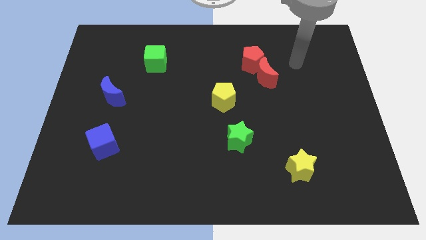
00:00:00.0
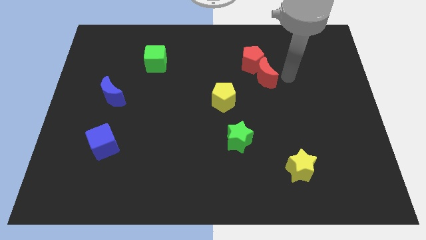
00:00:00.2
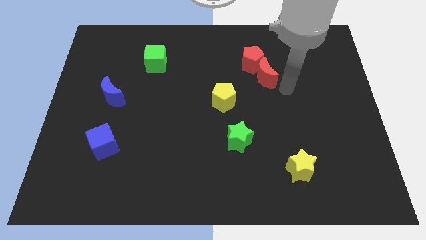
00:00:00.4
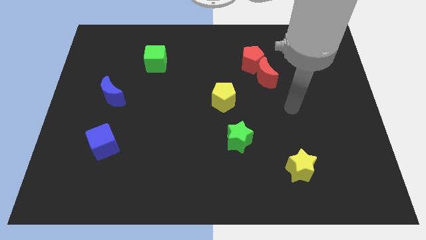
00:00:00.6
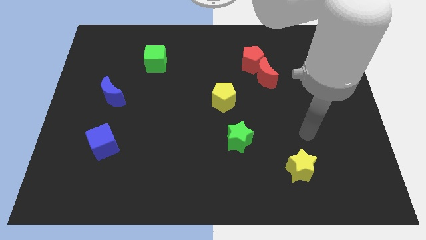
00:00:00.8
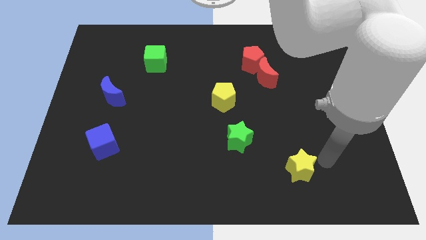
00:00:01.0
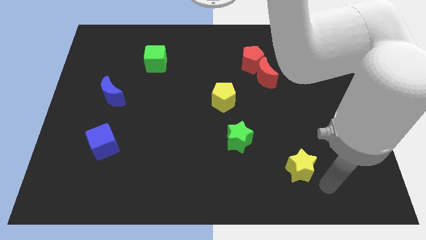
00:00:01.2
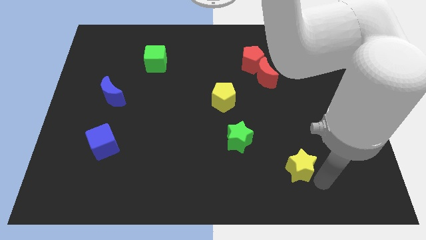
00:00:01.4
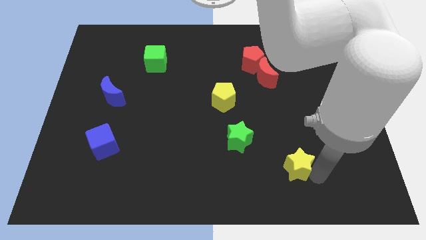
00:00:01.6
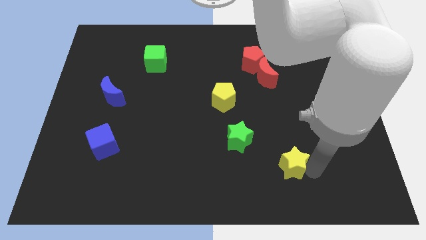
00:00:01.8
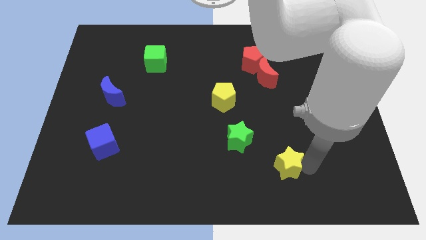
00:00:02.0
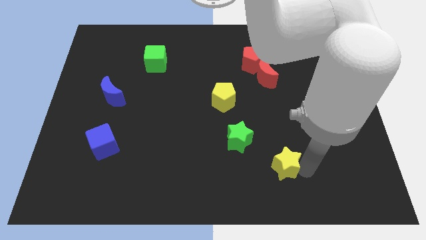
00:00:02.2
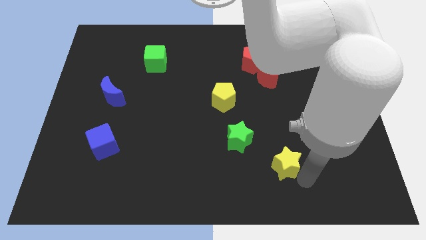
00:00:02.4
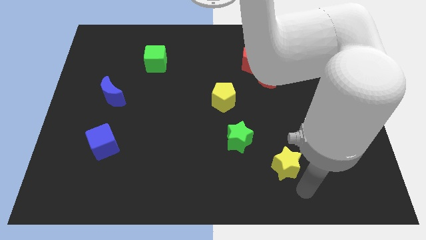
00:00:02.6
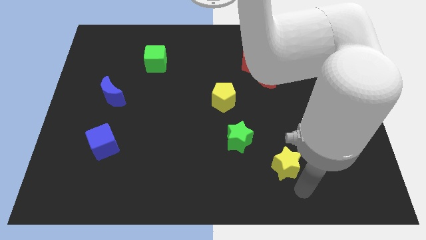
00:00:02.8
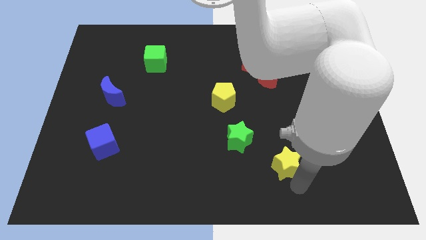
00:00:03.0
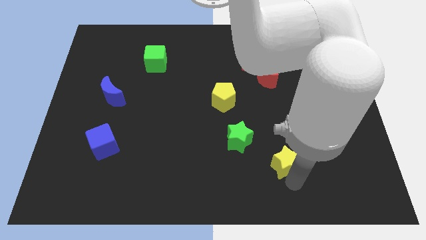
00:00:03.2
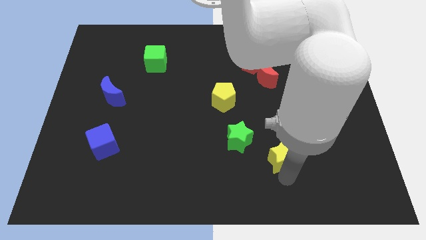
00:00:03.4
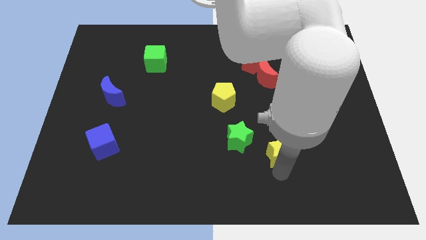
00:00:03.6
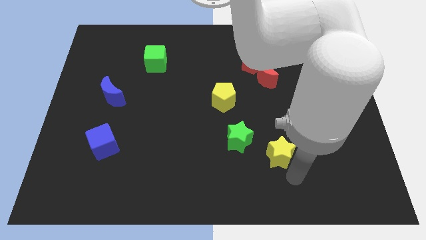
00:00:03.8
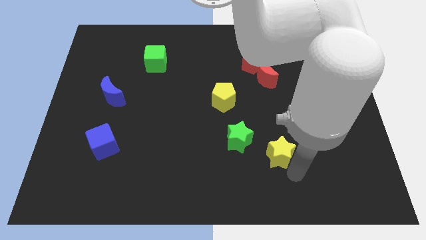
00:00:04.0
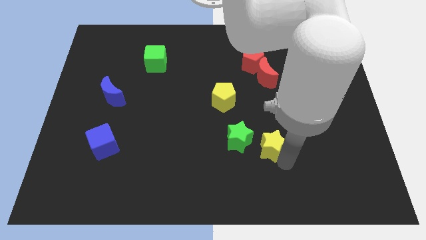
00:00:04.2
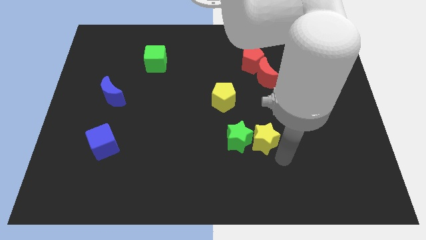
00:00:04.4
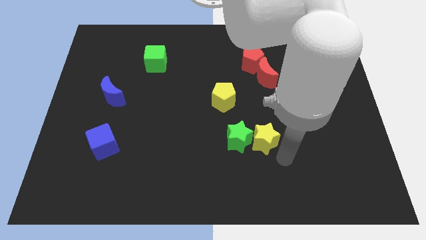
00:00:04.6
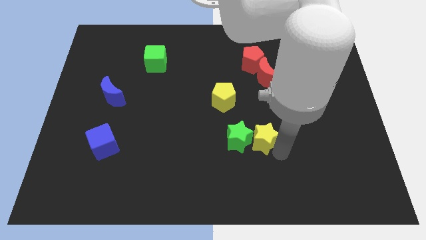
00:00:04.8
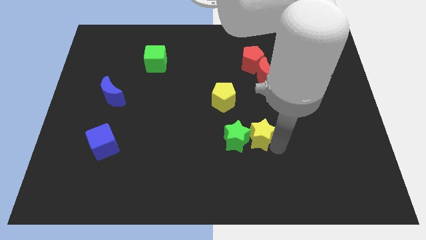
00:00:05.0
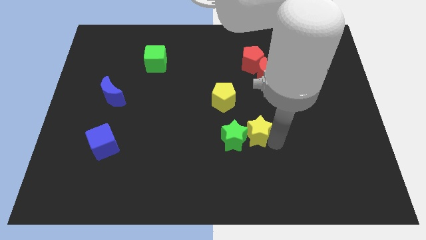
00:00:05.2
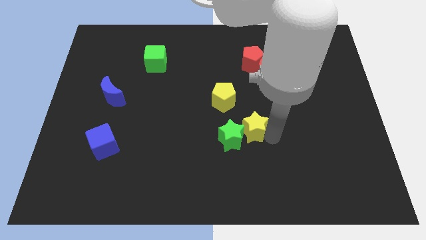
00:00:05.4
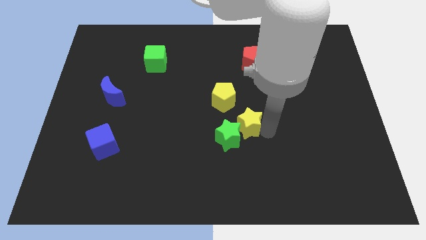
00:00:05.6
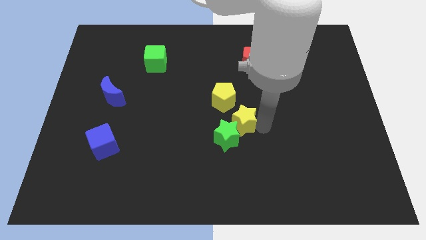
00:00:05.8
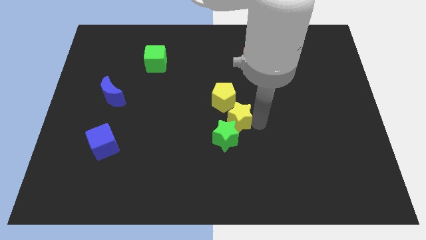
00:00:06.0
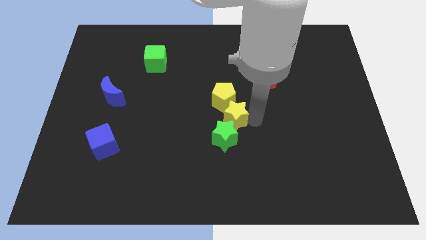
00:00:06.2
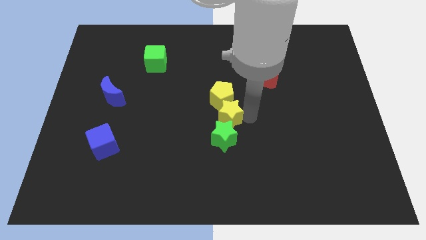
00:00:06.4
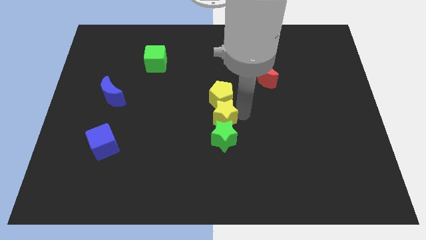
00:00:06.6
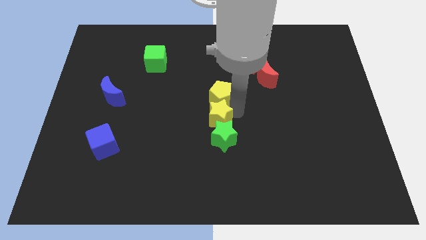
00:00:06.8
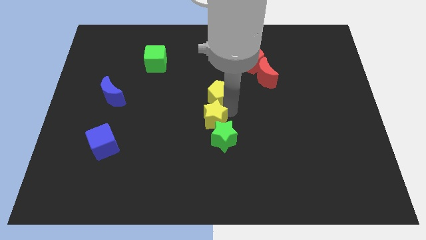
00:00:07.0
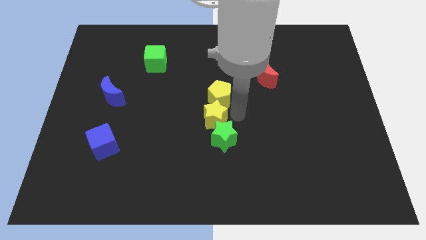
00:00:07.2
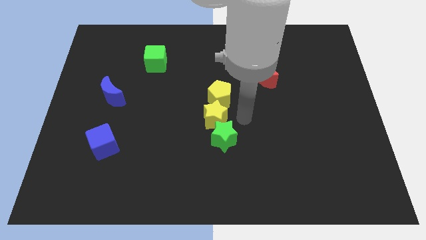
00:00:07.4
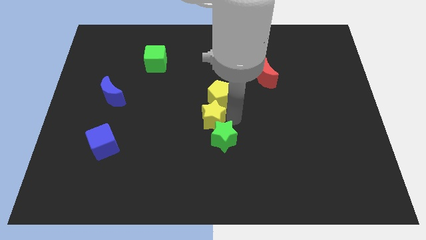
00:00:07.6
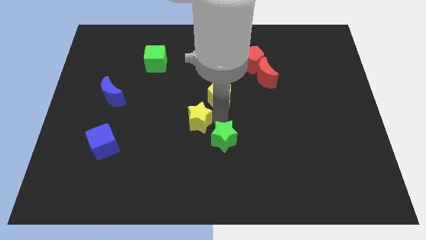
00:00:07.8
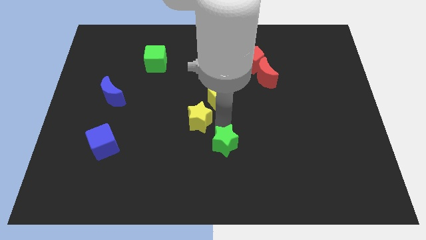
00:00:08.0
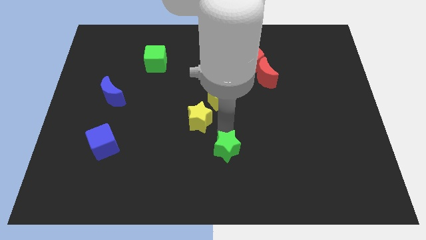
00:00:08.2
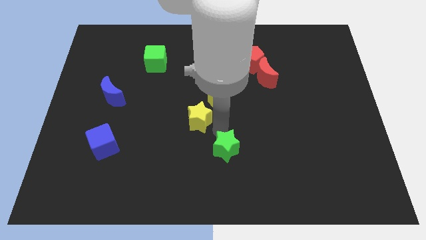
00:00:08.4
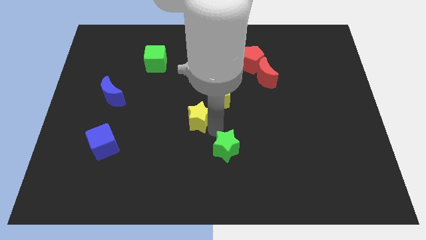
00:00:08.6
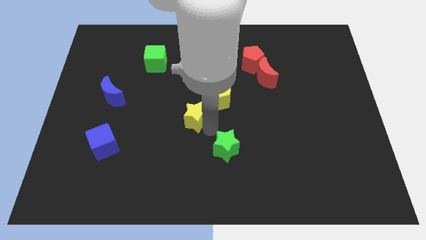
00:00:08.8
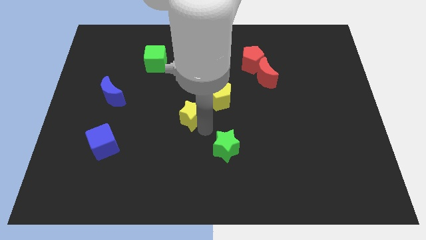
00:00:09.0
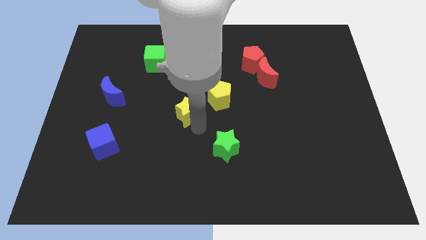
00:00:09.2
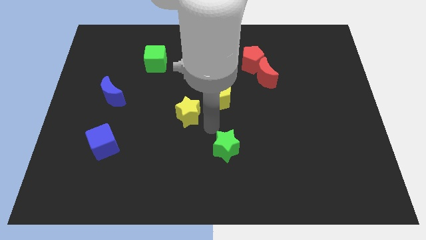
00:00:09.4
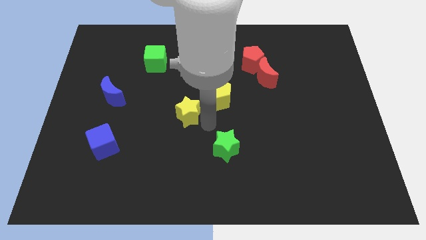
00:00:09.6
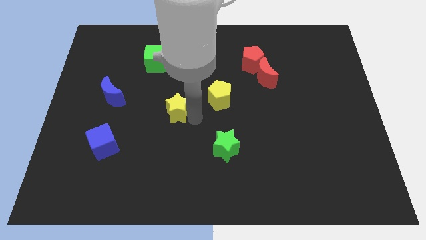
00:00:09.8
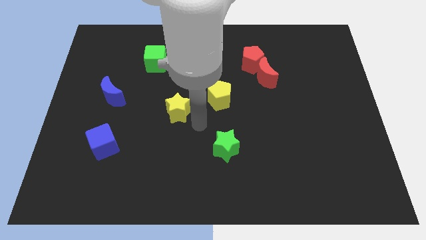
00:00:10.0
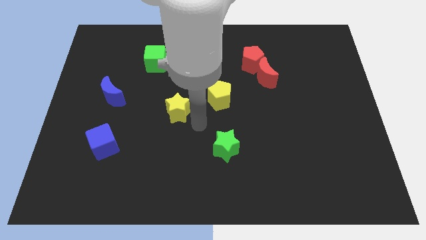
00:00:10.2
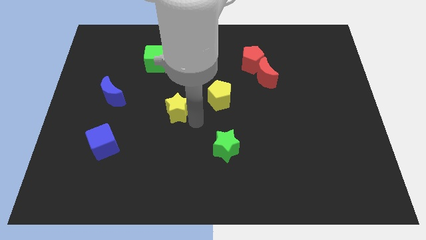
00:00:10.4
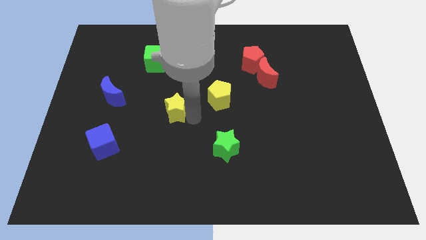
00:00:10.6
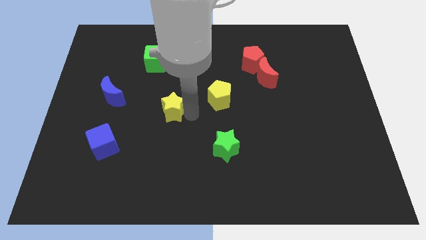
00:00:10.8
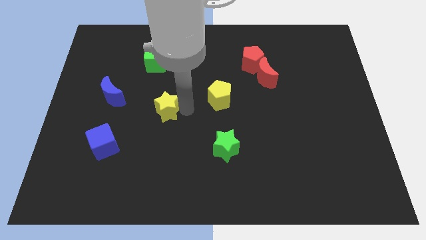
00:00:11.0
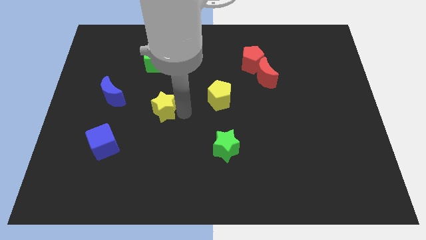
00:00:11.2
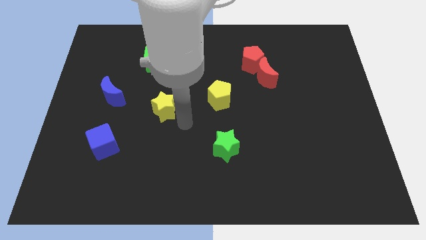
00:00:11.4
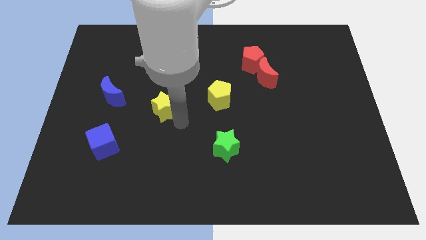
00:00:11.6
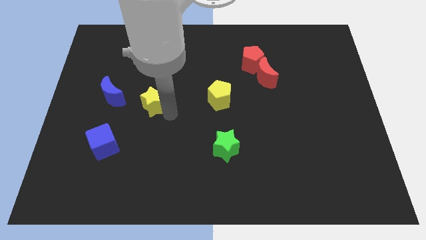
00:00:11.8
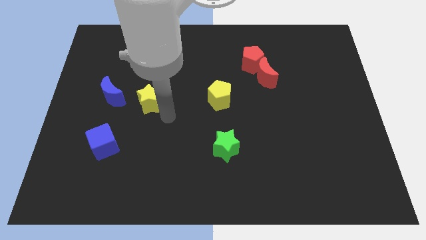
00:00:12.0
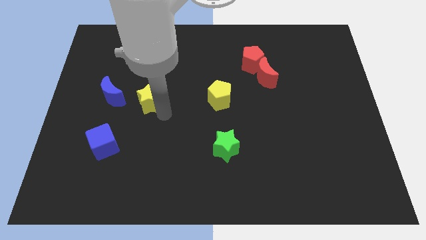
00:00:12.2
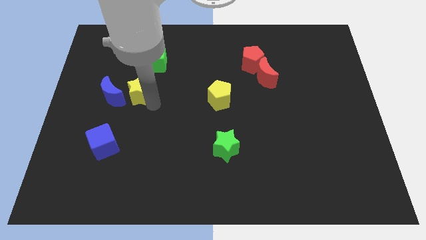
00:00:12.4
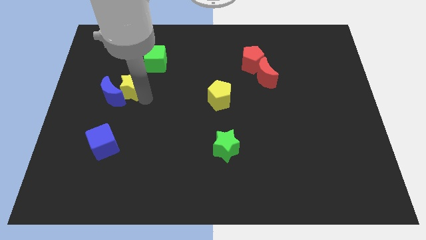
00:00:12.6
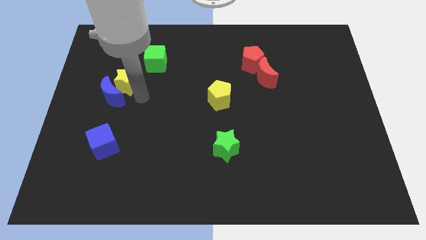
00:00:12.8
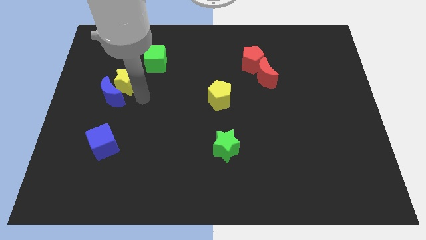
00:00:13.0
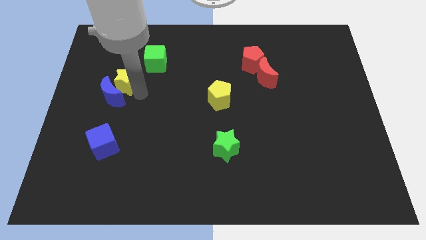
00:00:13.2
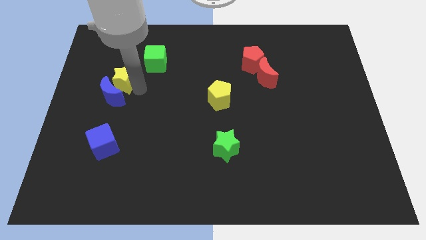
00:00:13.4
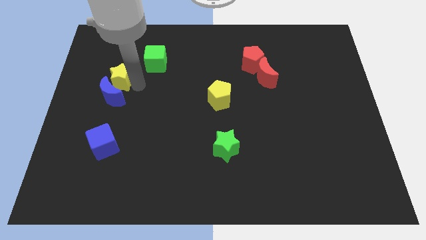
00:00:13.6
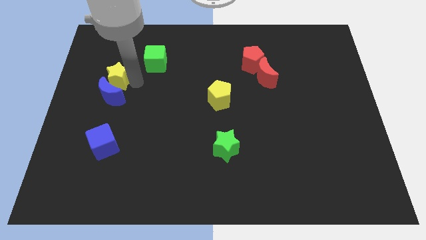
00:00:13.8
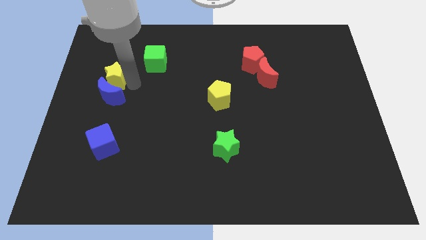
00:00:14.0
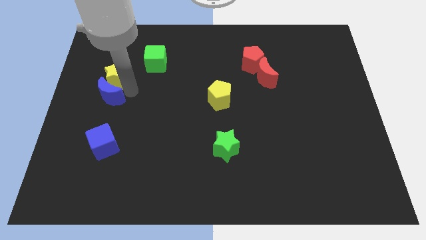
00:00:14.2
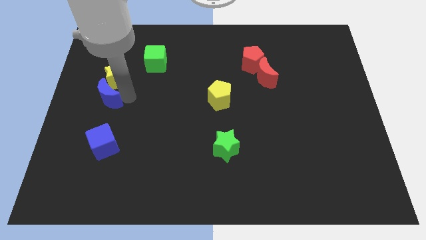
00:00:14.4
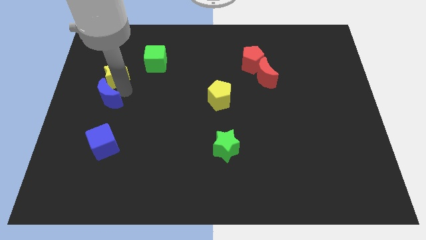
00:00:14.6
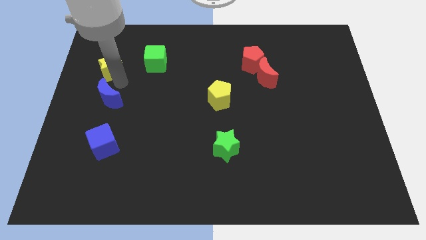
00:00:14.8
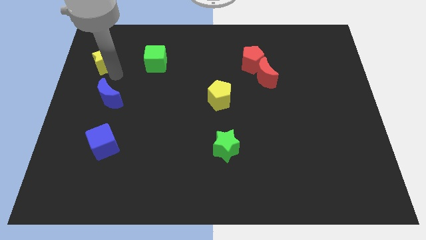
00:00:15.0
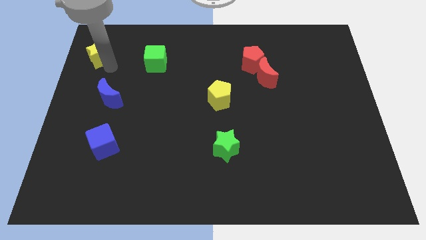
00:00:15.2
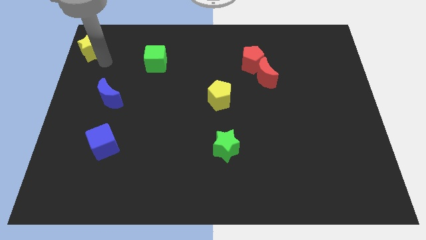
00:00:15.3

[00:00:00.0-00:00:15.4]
put the yellow star to the top left corner
